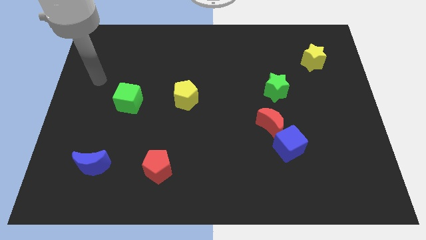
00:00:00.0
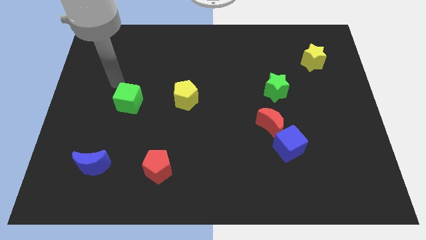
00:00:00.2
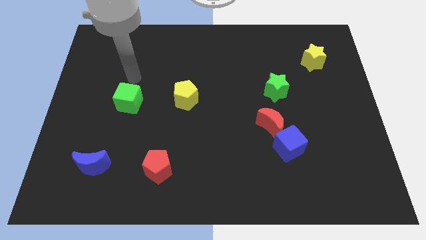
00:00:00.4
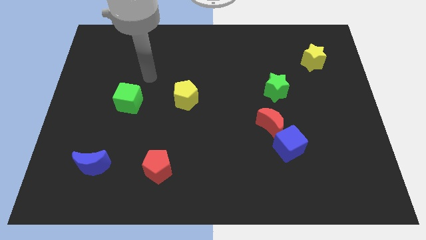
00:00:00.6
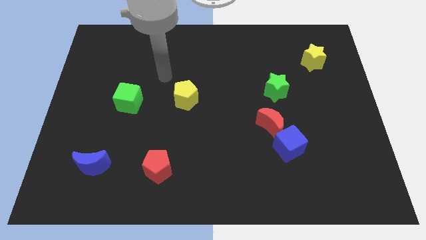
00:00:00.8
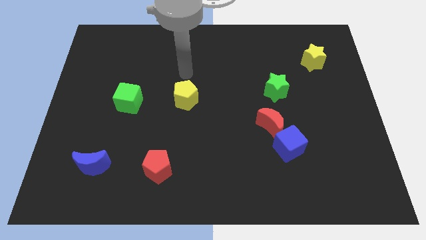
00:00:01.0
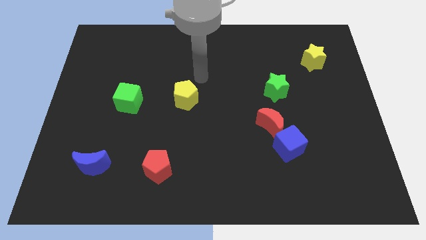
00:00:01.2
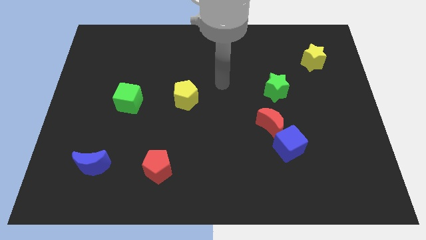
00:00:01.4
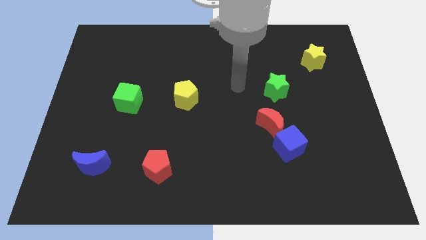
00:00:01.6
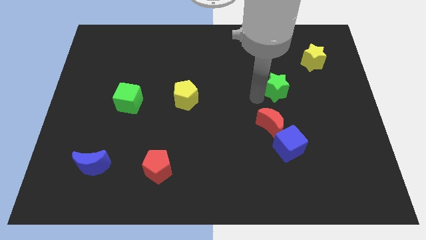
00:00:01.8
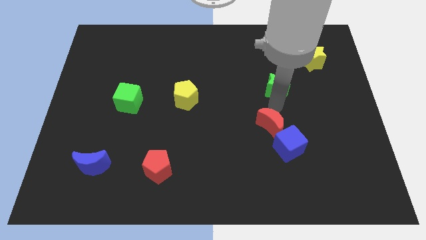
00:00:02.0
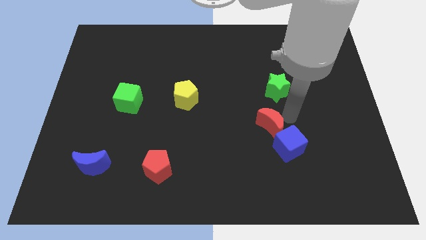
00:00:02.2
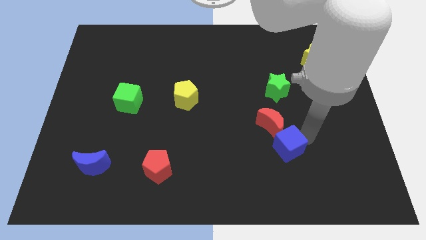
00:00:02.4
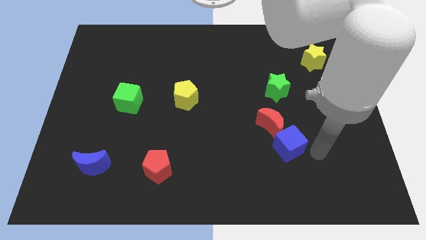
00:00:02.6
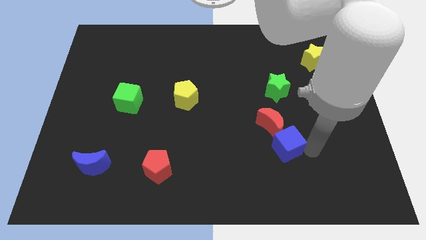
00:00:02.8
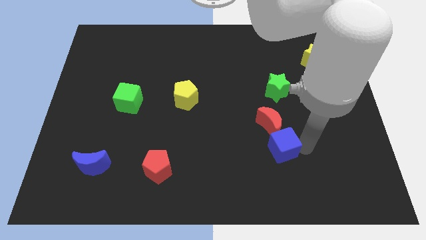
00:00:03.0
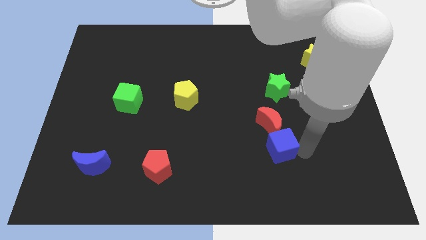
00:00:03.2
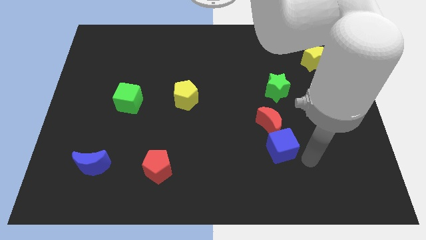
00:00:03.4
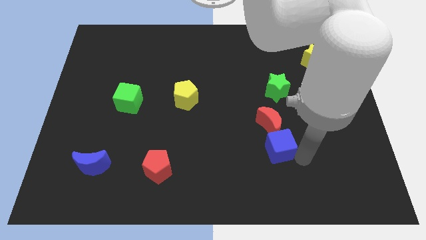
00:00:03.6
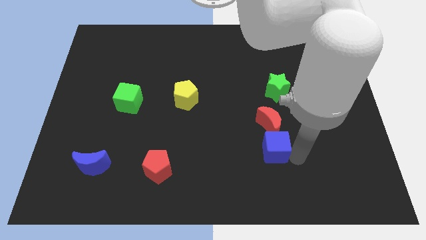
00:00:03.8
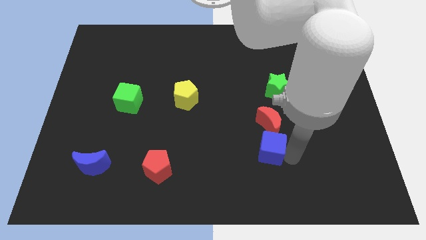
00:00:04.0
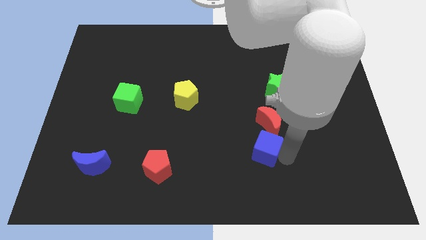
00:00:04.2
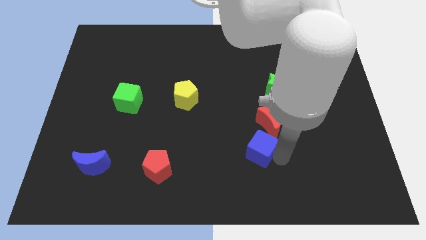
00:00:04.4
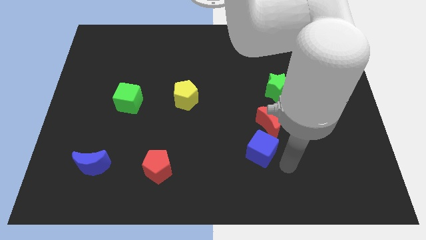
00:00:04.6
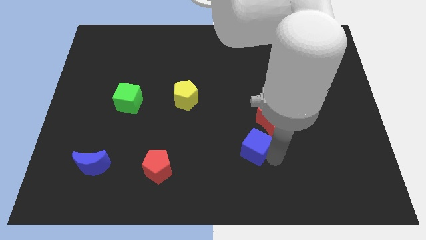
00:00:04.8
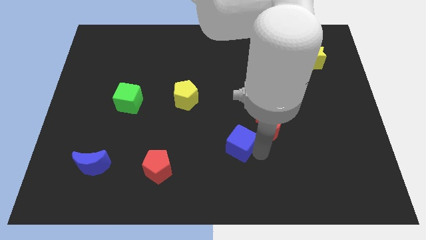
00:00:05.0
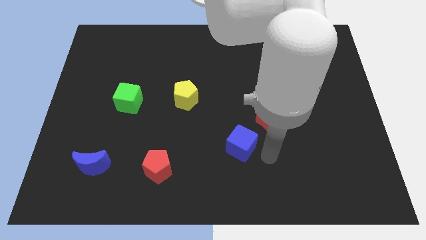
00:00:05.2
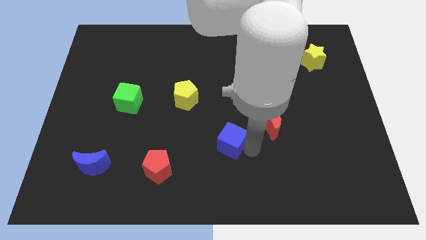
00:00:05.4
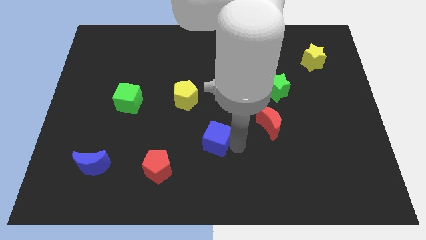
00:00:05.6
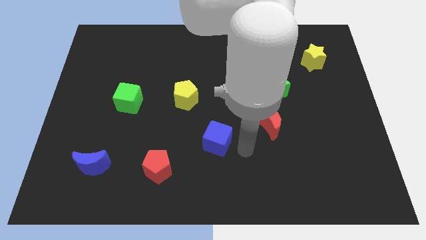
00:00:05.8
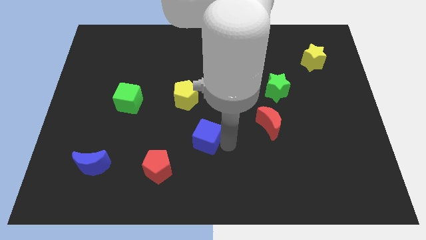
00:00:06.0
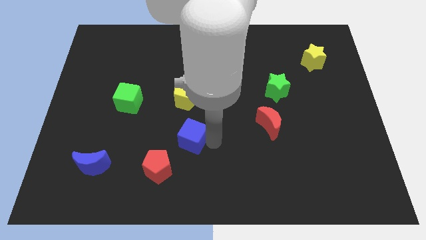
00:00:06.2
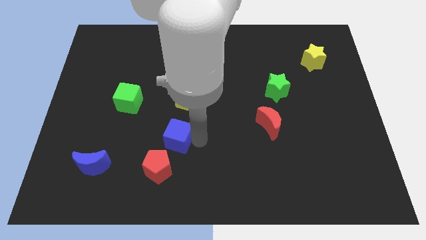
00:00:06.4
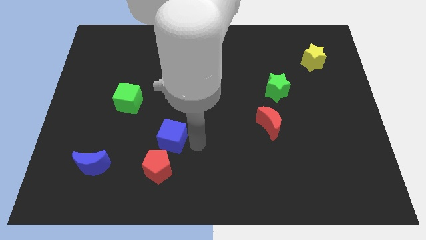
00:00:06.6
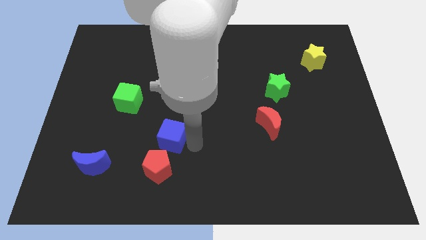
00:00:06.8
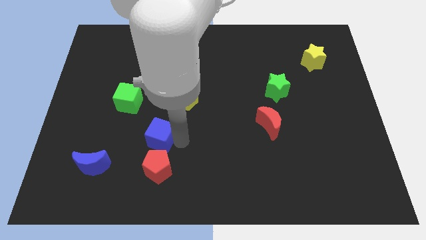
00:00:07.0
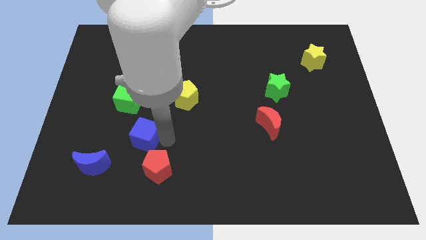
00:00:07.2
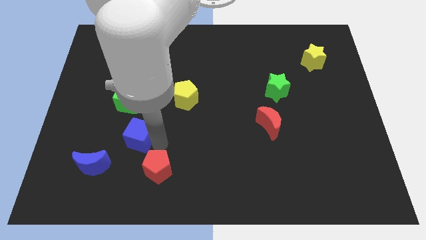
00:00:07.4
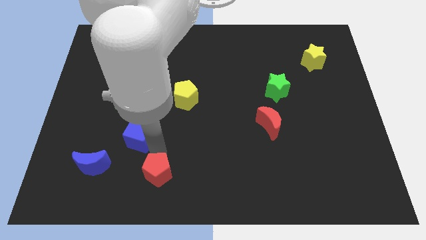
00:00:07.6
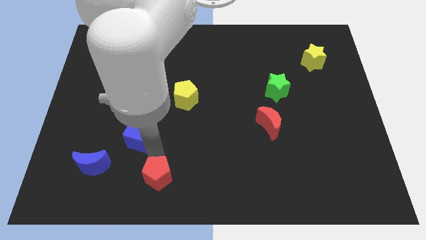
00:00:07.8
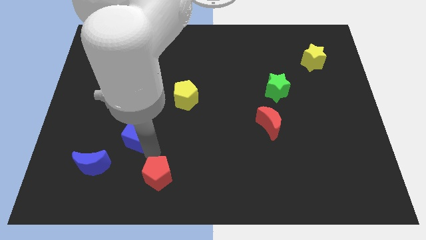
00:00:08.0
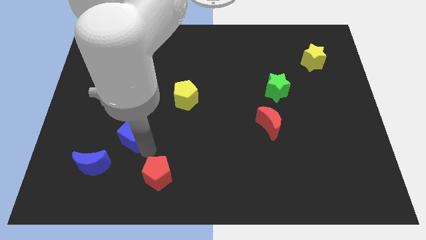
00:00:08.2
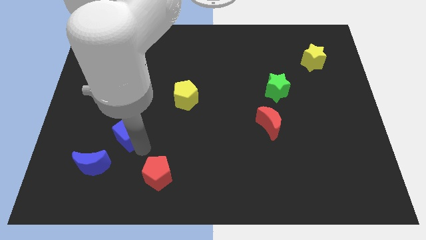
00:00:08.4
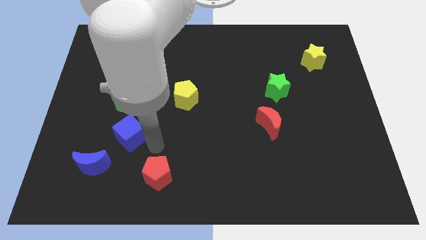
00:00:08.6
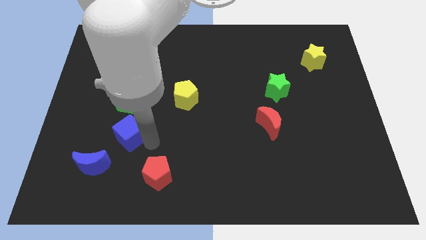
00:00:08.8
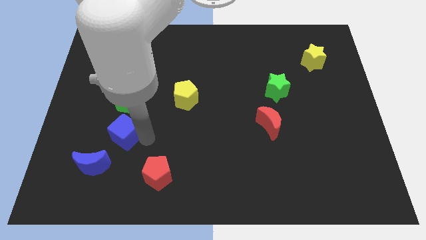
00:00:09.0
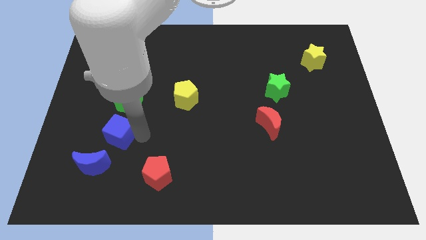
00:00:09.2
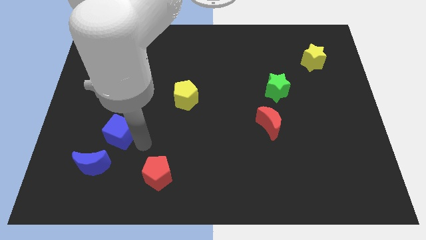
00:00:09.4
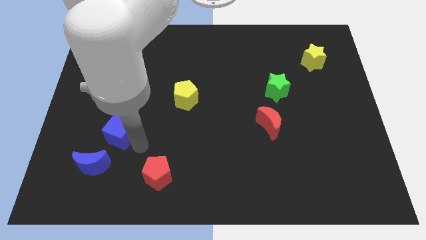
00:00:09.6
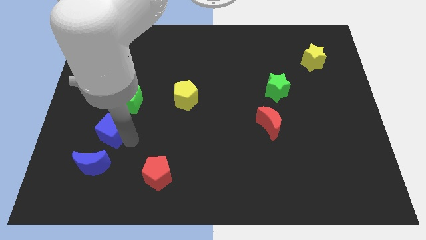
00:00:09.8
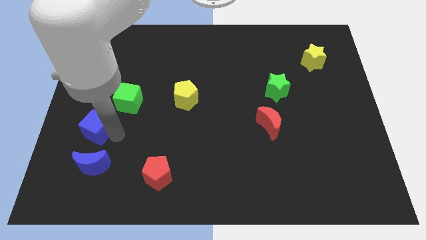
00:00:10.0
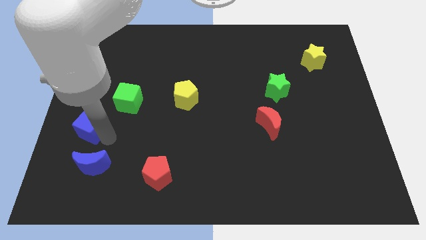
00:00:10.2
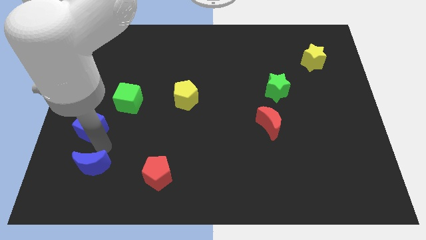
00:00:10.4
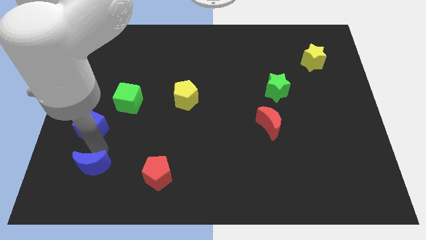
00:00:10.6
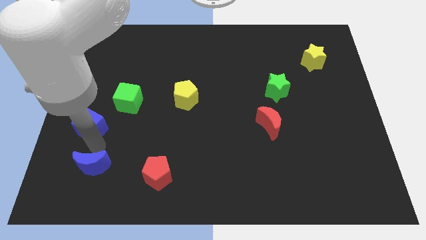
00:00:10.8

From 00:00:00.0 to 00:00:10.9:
push the blue cube to the left side
